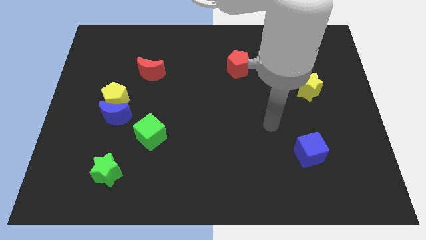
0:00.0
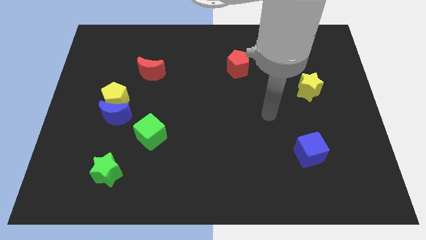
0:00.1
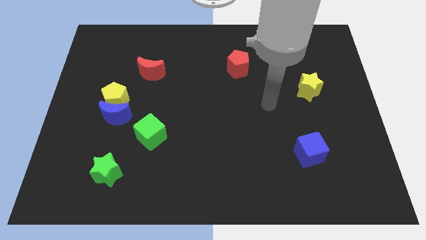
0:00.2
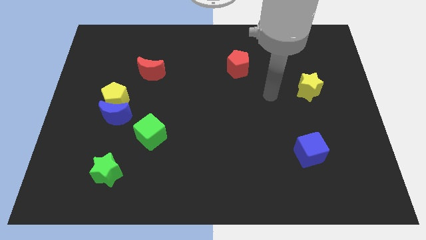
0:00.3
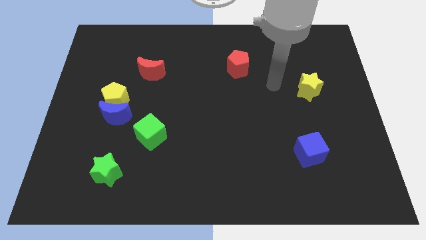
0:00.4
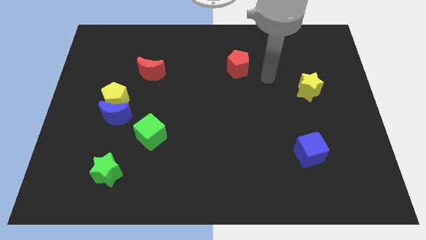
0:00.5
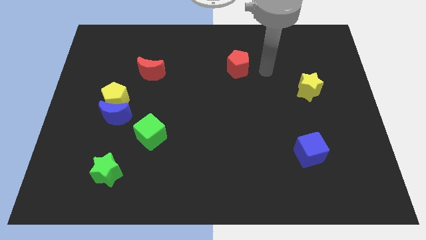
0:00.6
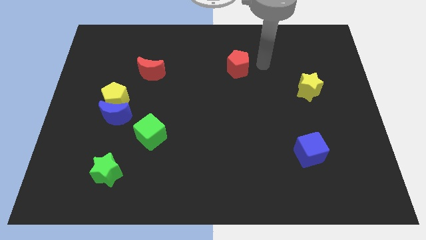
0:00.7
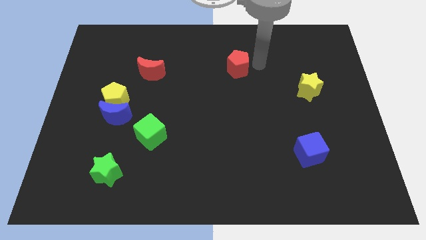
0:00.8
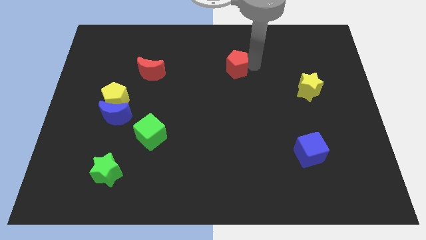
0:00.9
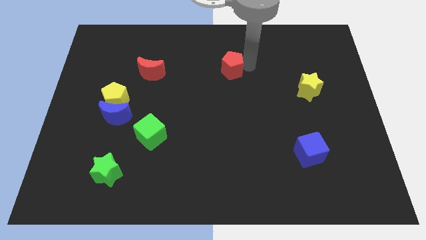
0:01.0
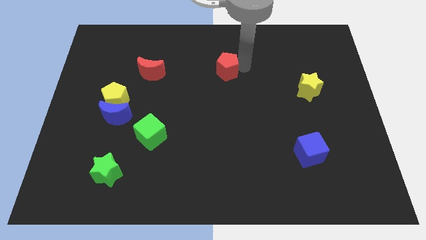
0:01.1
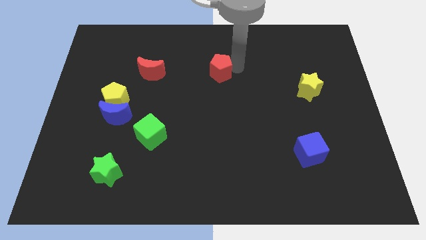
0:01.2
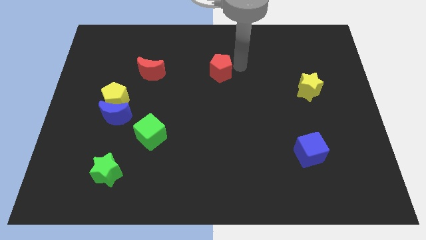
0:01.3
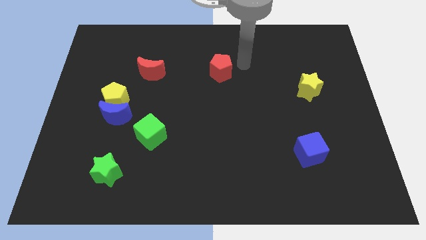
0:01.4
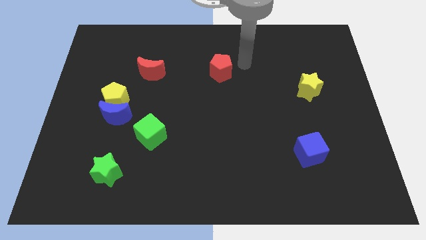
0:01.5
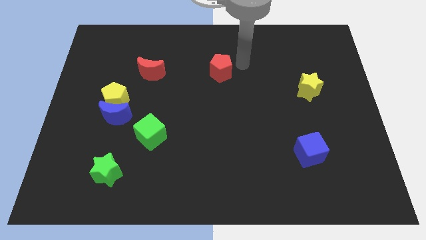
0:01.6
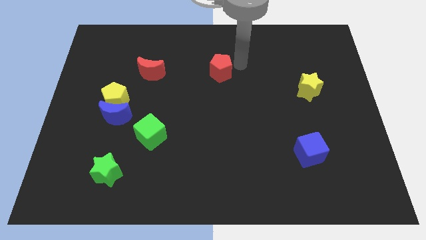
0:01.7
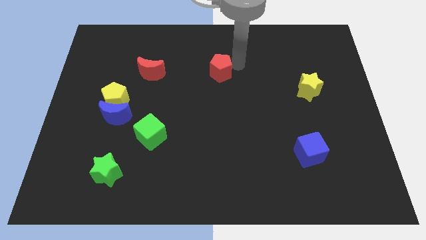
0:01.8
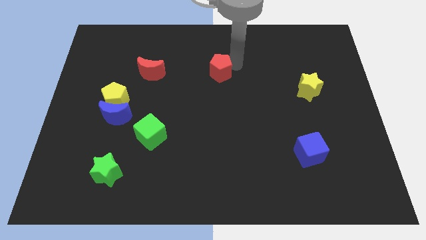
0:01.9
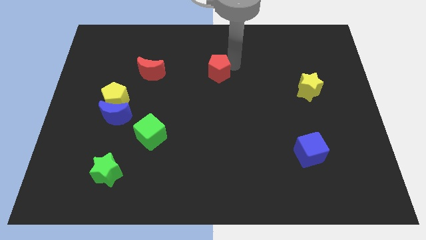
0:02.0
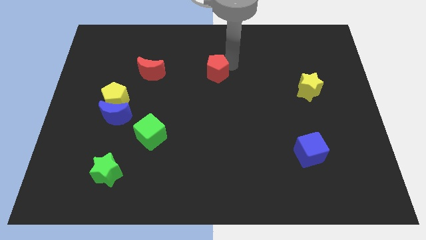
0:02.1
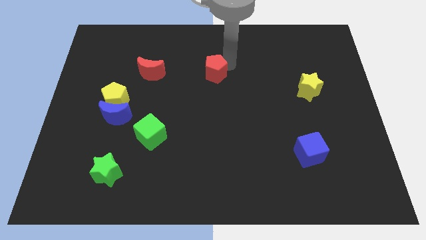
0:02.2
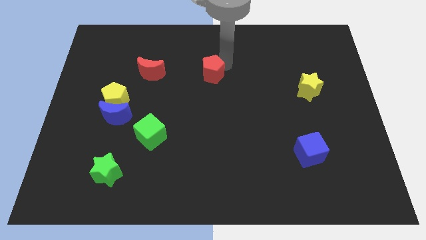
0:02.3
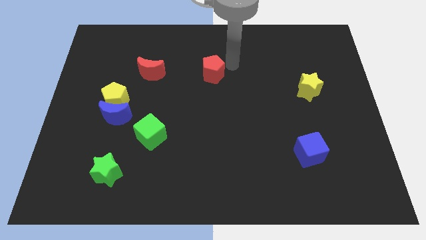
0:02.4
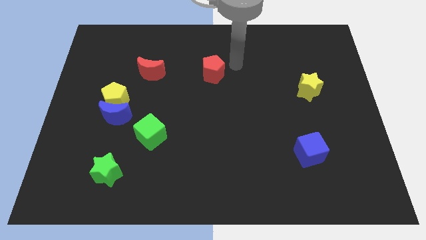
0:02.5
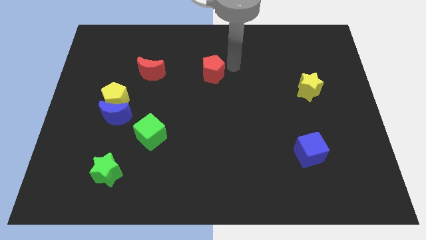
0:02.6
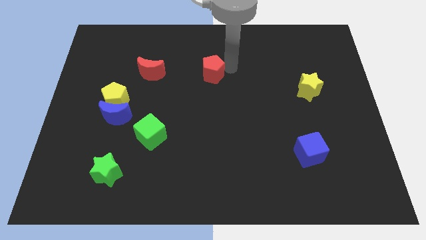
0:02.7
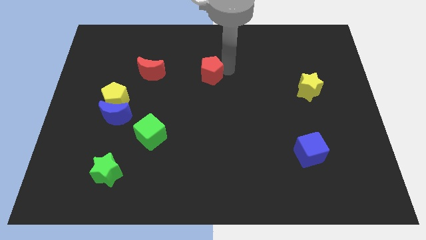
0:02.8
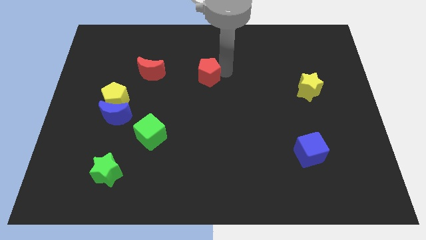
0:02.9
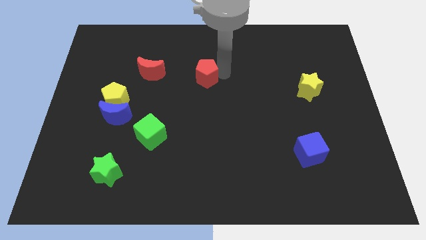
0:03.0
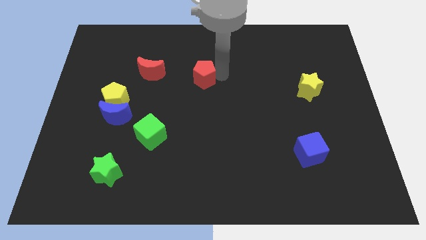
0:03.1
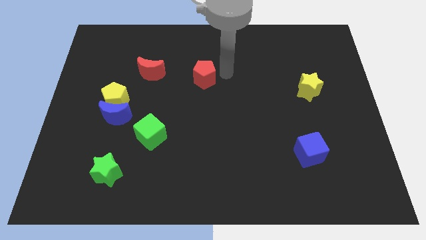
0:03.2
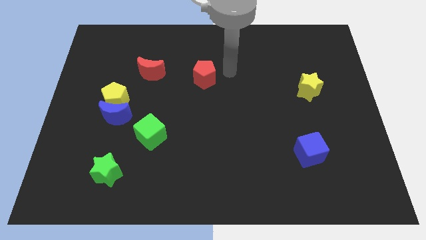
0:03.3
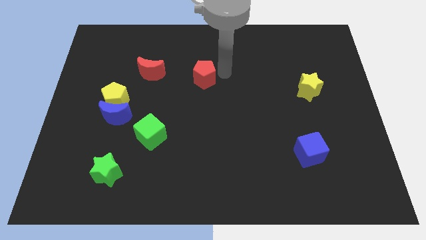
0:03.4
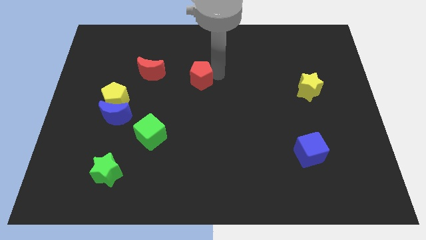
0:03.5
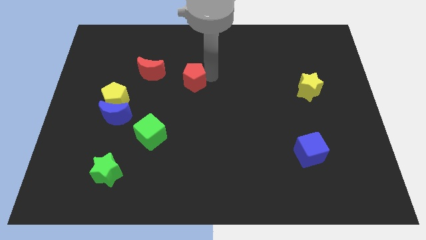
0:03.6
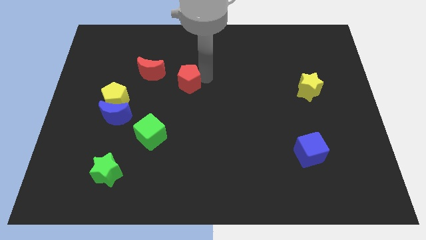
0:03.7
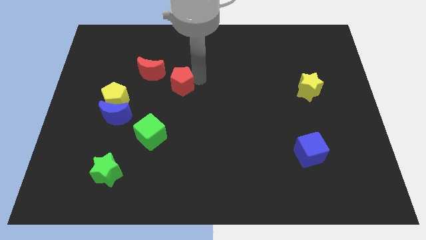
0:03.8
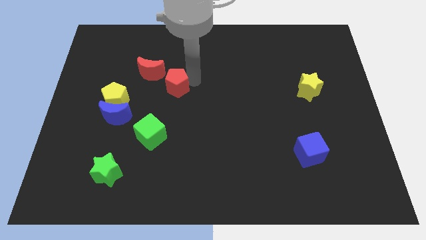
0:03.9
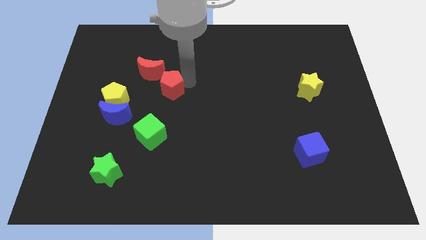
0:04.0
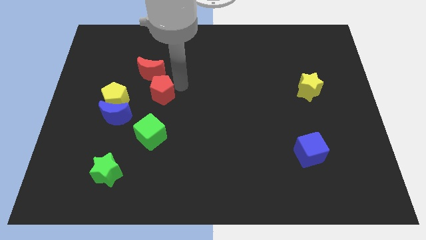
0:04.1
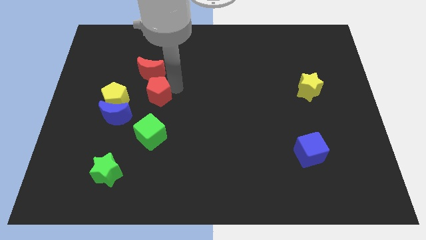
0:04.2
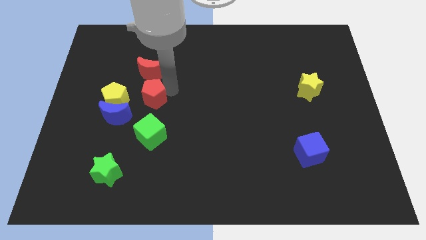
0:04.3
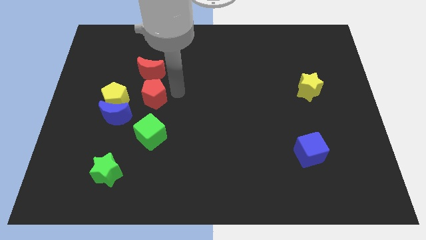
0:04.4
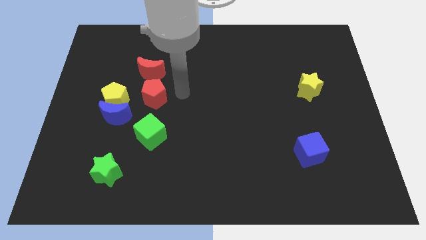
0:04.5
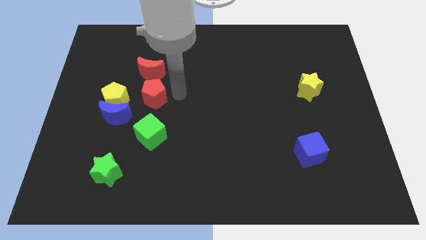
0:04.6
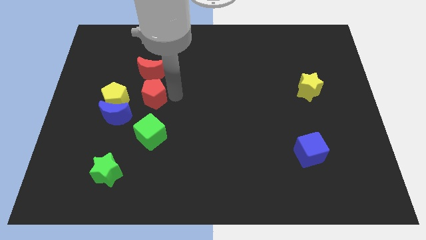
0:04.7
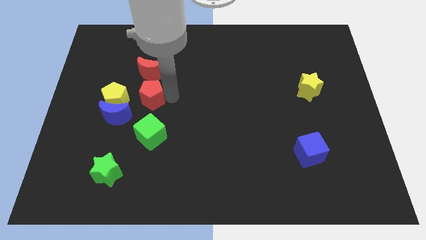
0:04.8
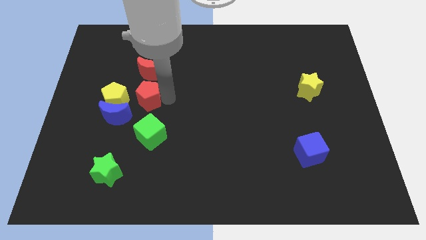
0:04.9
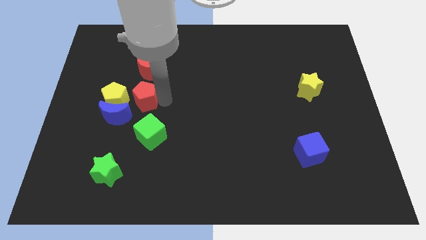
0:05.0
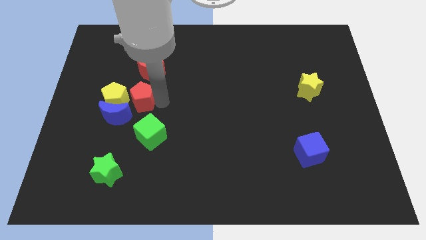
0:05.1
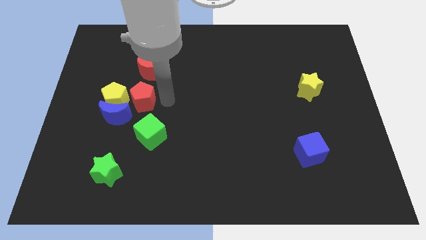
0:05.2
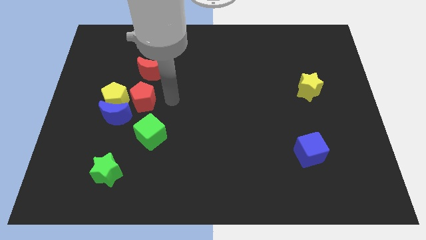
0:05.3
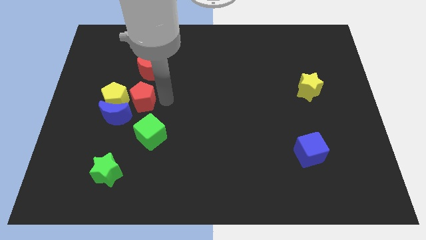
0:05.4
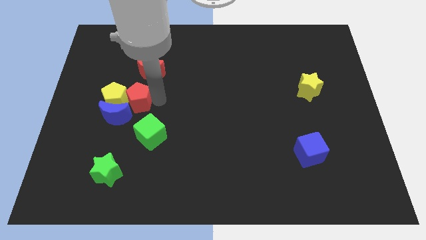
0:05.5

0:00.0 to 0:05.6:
push the red pentagon close to the yellow pentagon

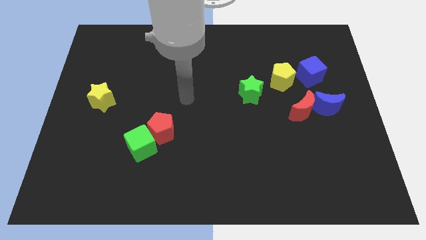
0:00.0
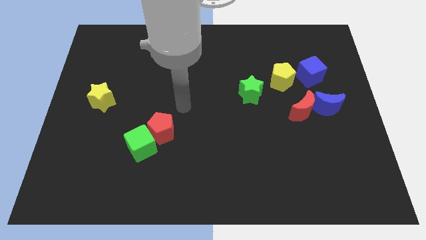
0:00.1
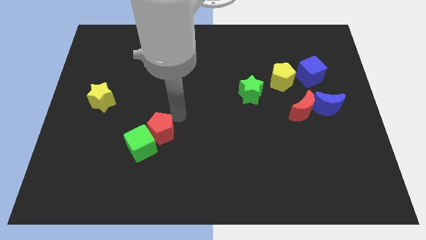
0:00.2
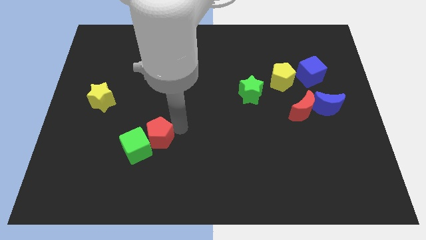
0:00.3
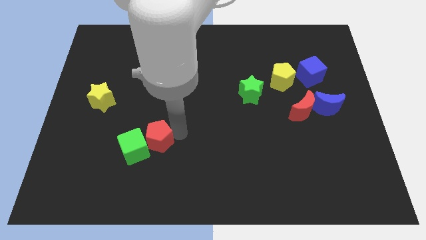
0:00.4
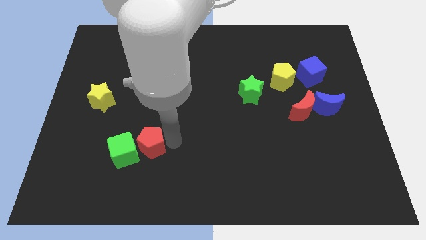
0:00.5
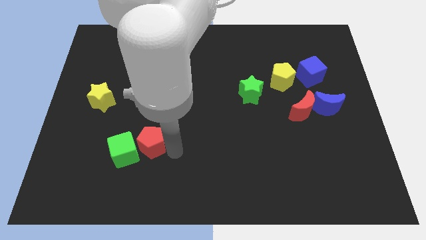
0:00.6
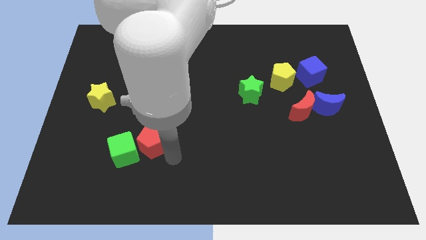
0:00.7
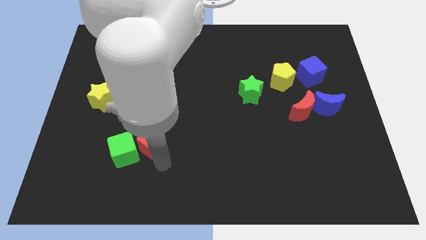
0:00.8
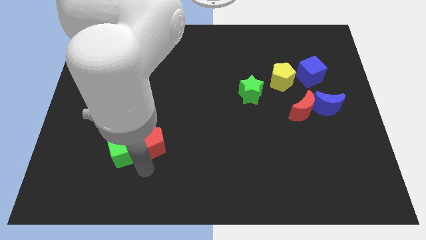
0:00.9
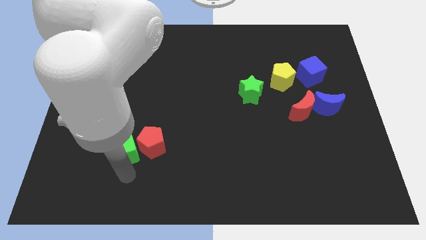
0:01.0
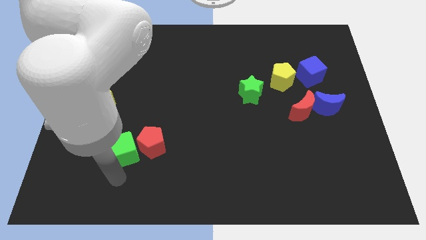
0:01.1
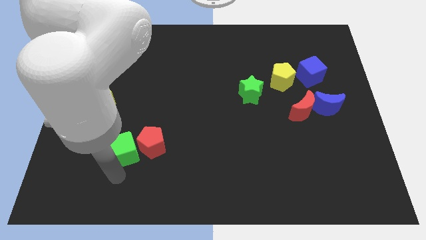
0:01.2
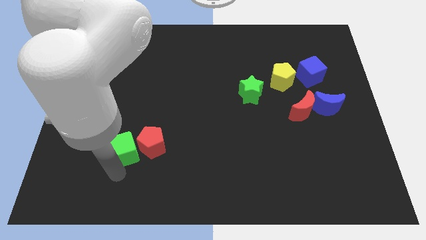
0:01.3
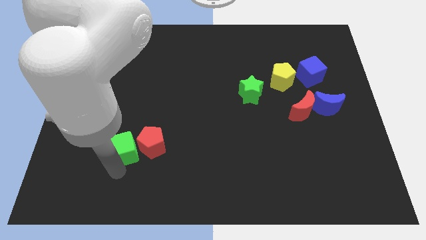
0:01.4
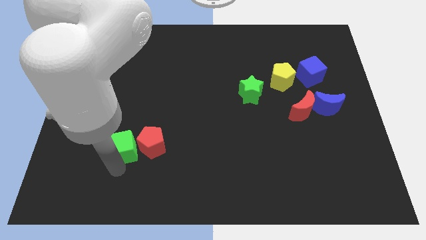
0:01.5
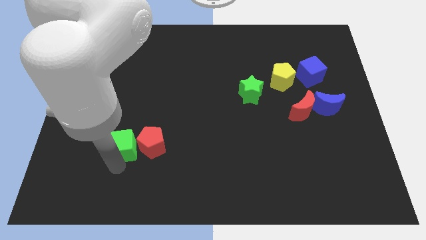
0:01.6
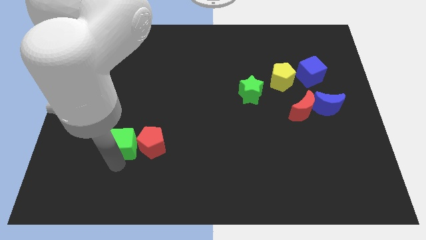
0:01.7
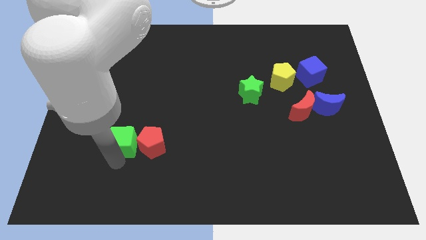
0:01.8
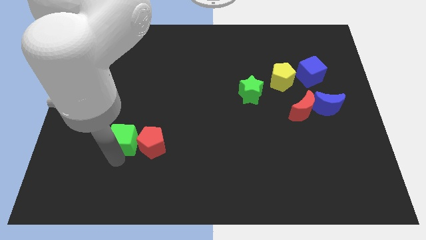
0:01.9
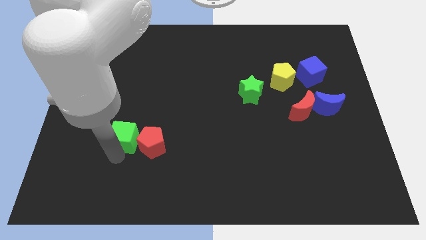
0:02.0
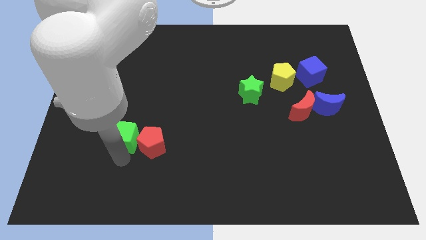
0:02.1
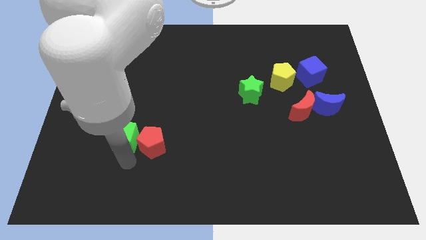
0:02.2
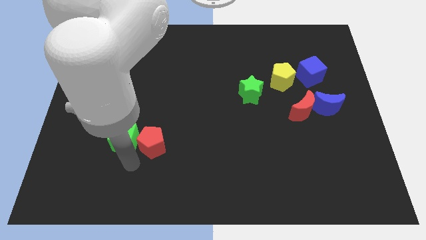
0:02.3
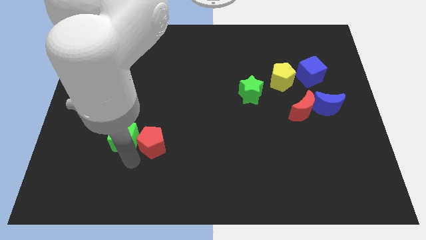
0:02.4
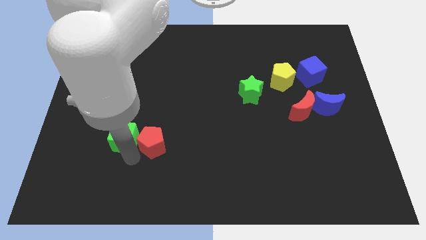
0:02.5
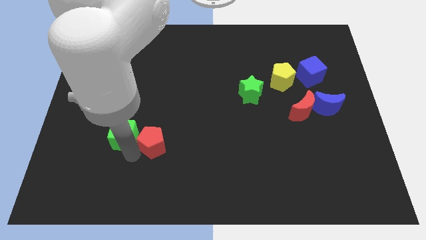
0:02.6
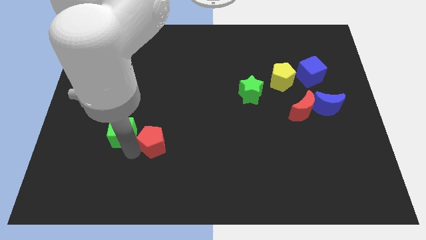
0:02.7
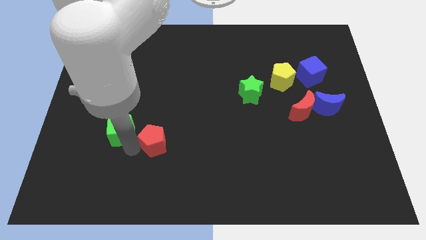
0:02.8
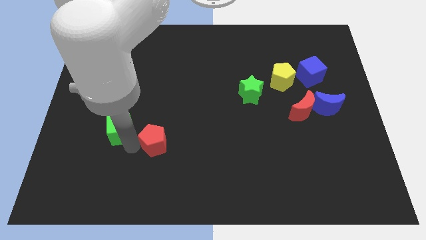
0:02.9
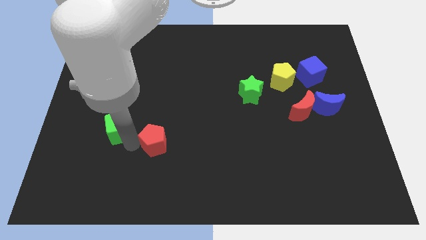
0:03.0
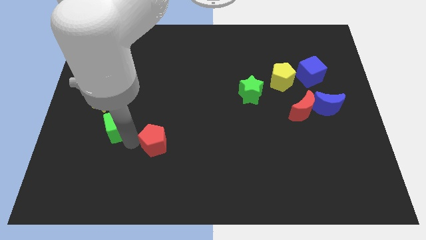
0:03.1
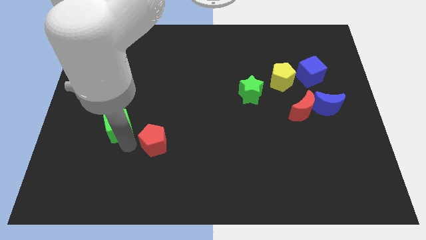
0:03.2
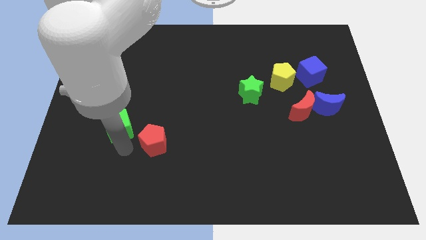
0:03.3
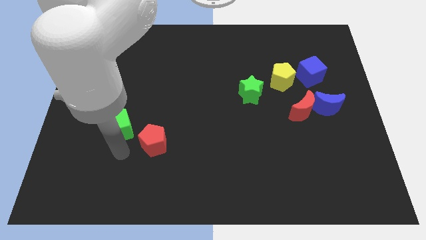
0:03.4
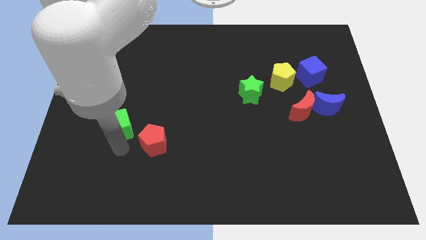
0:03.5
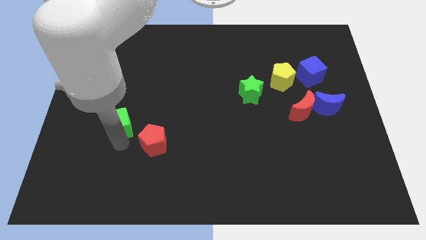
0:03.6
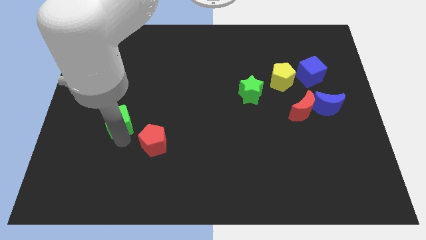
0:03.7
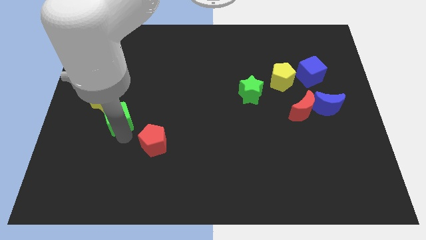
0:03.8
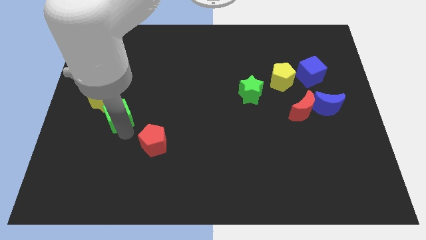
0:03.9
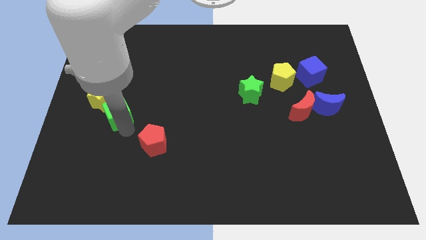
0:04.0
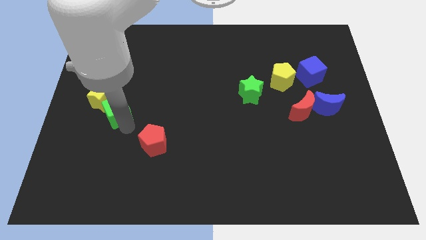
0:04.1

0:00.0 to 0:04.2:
move the green cube towards the yellow star
